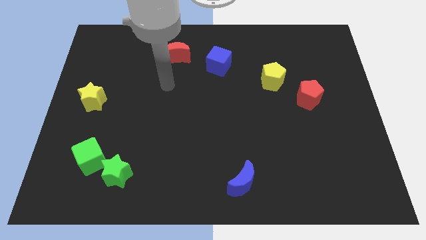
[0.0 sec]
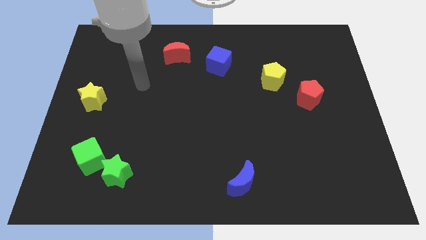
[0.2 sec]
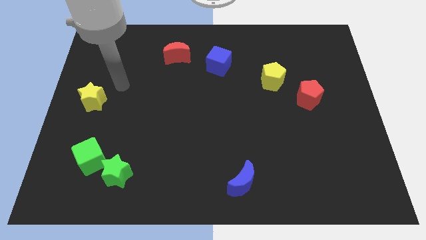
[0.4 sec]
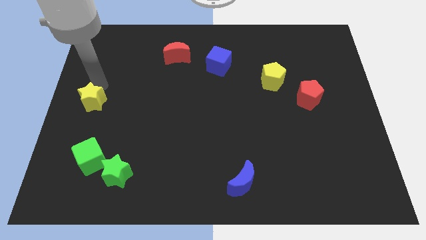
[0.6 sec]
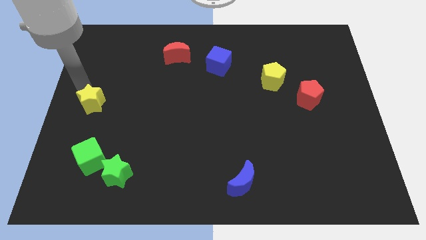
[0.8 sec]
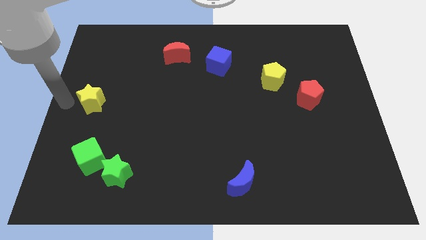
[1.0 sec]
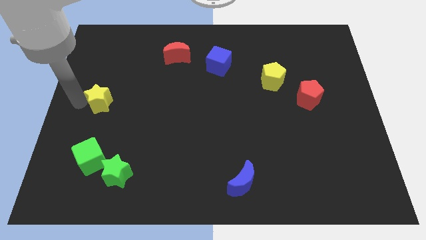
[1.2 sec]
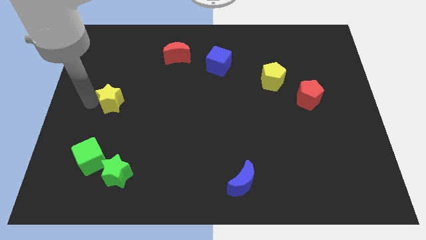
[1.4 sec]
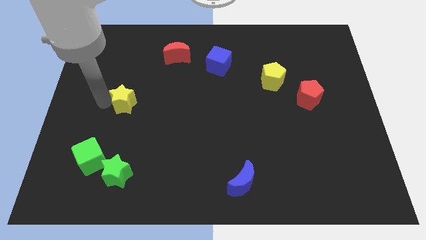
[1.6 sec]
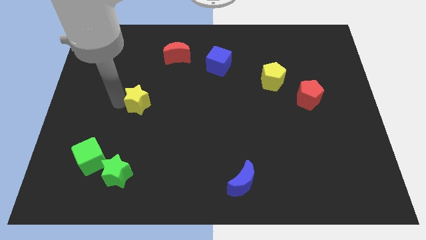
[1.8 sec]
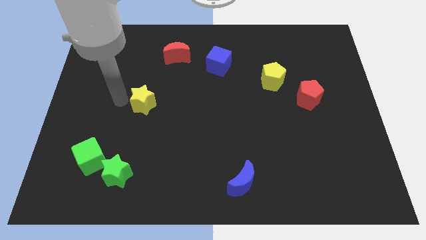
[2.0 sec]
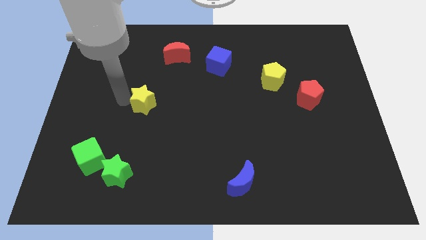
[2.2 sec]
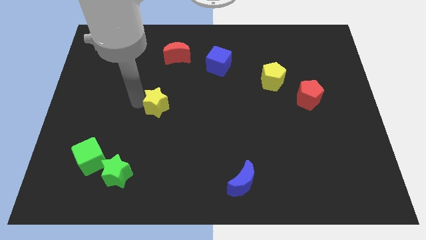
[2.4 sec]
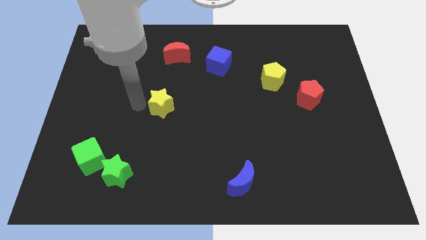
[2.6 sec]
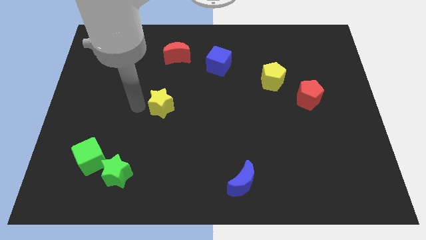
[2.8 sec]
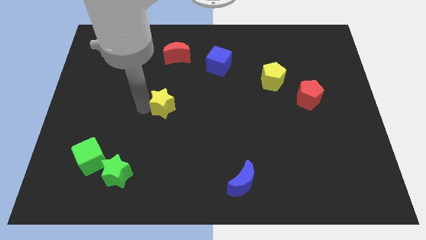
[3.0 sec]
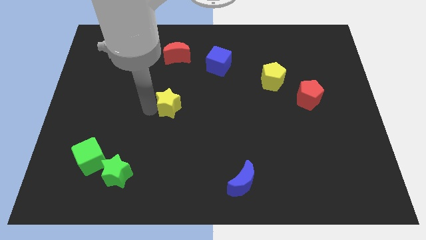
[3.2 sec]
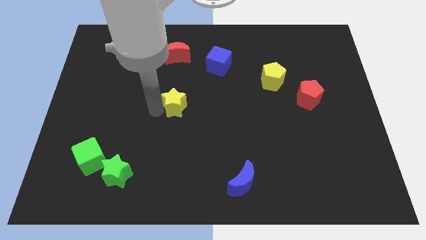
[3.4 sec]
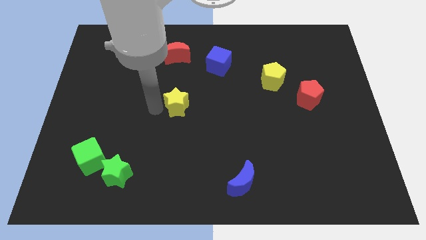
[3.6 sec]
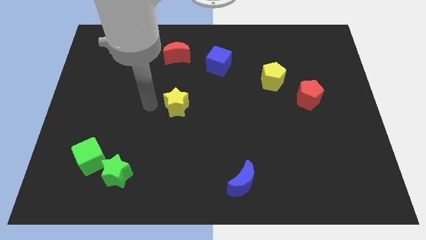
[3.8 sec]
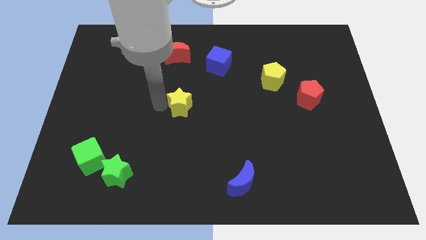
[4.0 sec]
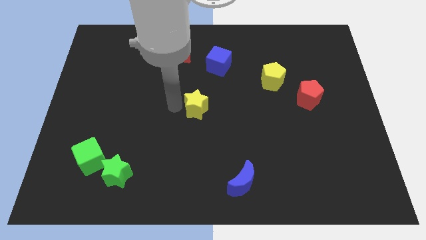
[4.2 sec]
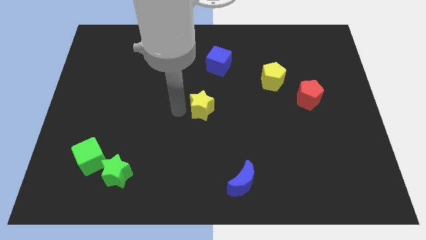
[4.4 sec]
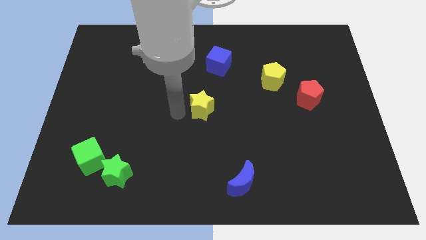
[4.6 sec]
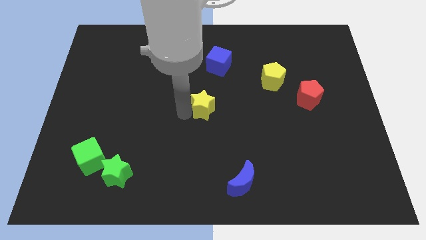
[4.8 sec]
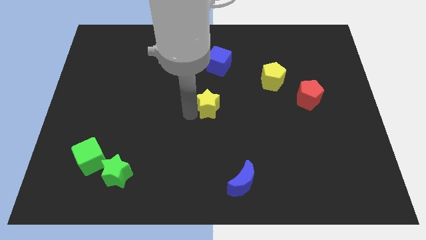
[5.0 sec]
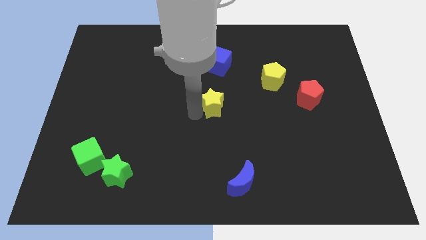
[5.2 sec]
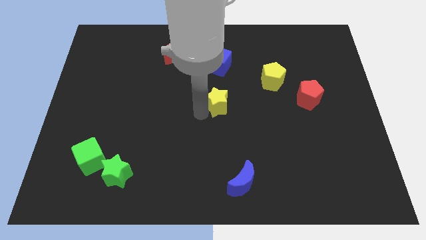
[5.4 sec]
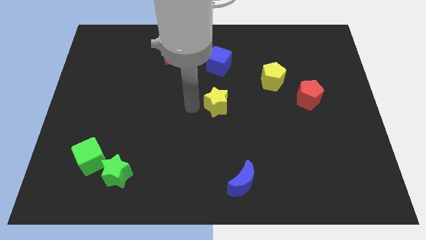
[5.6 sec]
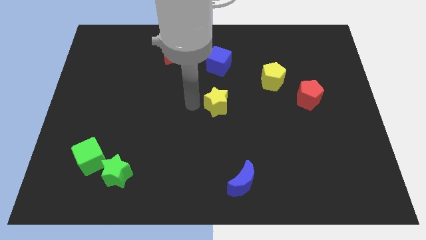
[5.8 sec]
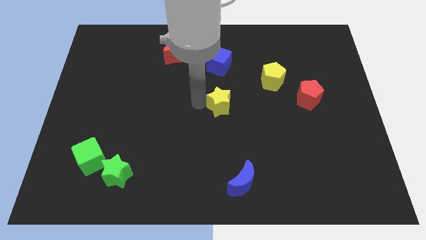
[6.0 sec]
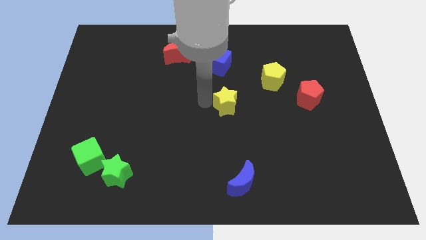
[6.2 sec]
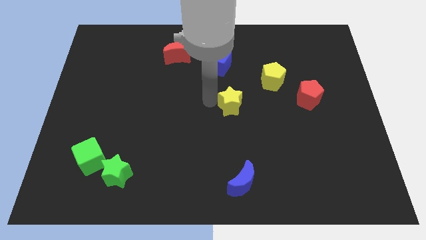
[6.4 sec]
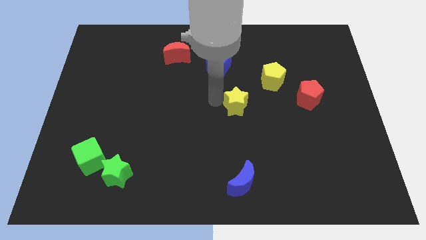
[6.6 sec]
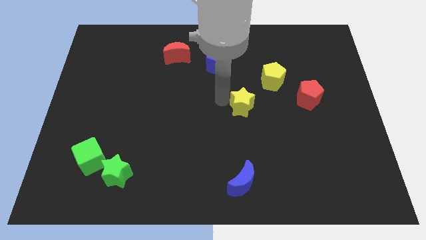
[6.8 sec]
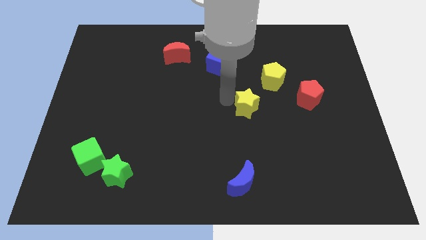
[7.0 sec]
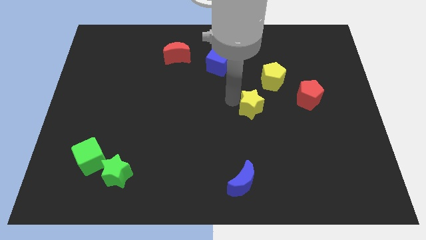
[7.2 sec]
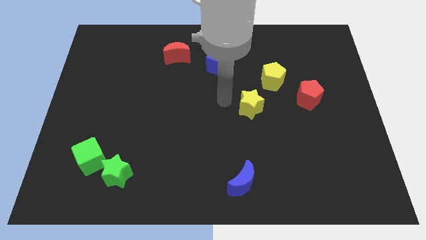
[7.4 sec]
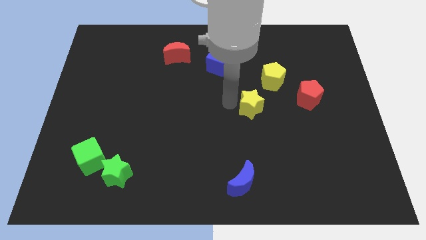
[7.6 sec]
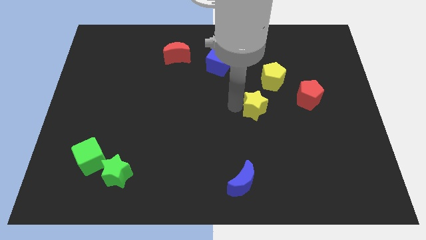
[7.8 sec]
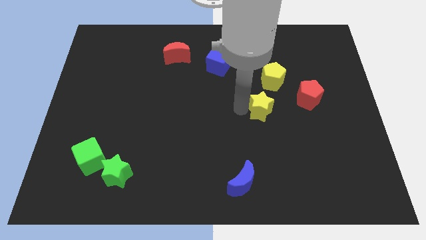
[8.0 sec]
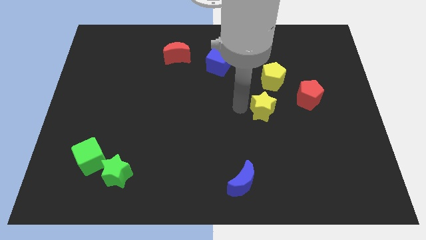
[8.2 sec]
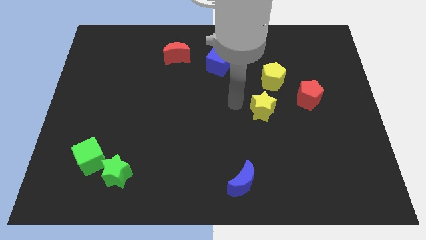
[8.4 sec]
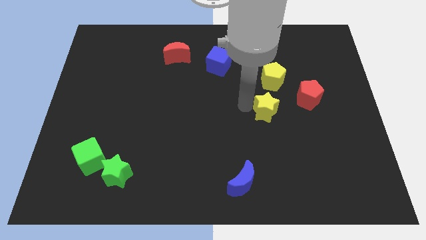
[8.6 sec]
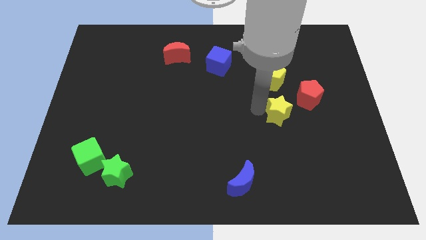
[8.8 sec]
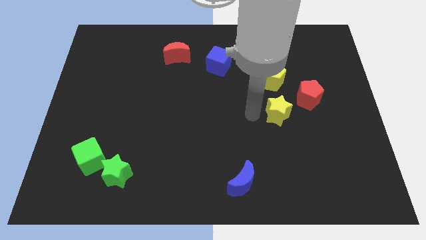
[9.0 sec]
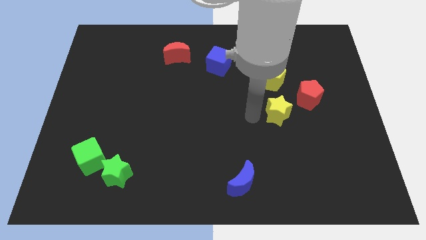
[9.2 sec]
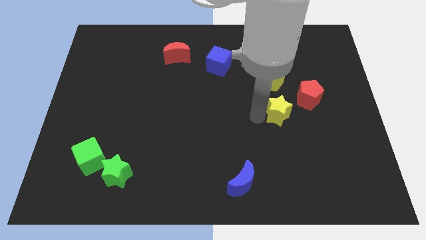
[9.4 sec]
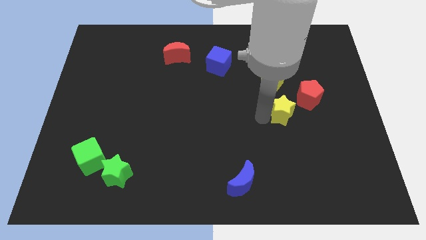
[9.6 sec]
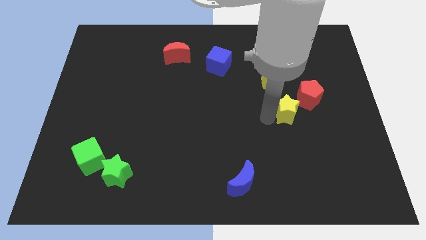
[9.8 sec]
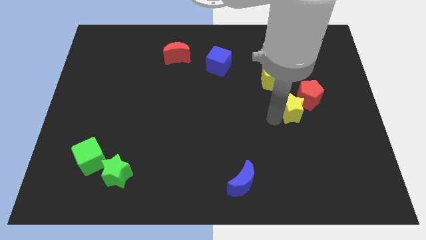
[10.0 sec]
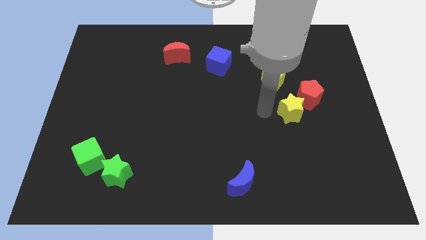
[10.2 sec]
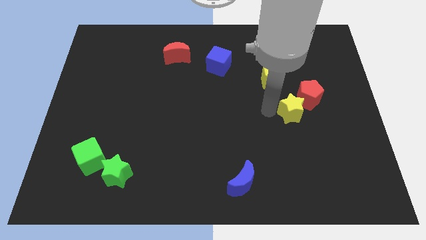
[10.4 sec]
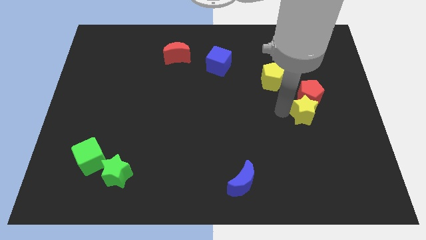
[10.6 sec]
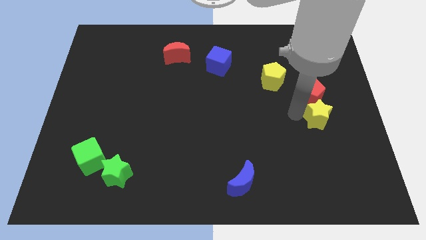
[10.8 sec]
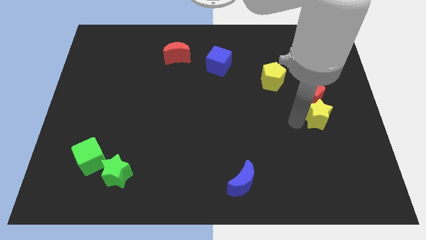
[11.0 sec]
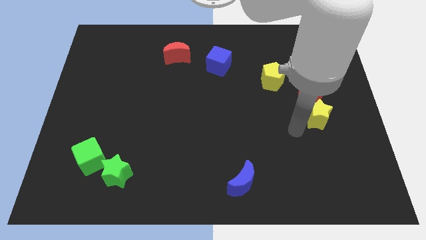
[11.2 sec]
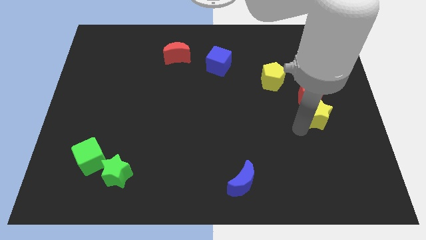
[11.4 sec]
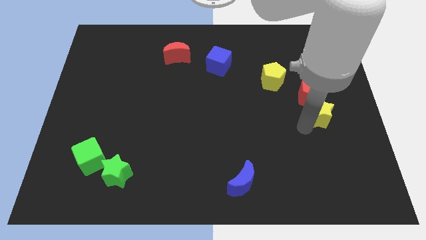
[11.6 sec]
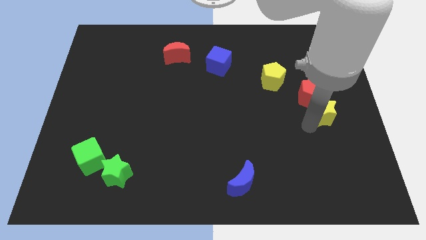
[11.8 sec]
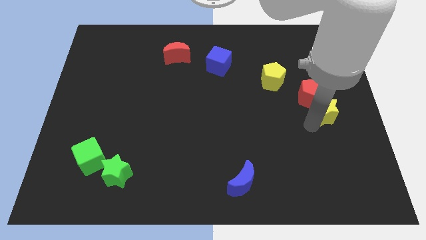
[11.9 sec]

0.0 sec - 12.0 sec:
slide the yellow star to the right side

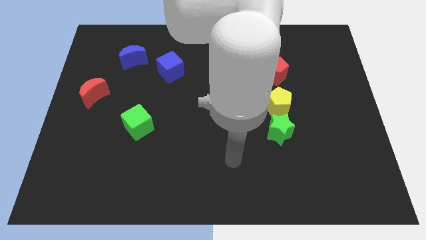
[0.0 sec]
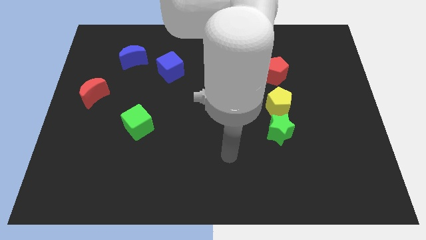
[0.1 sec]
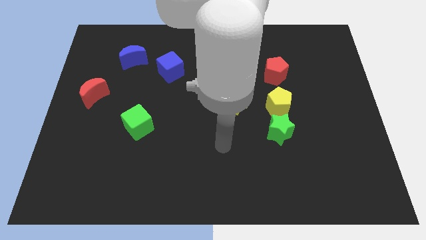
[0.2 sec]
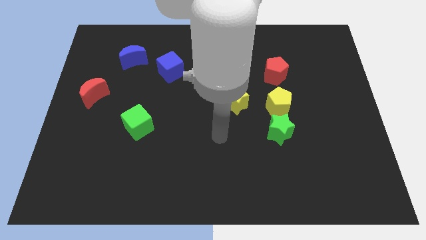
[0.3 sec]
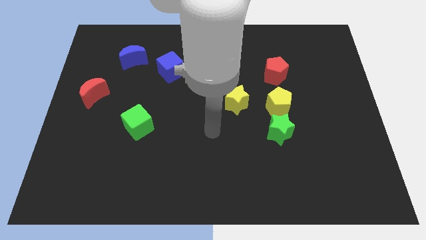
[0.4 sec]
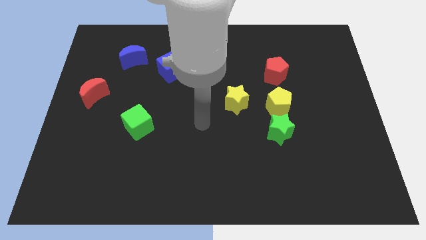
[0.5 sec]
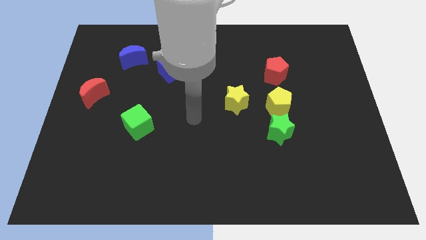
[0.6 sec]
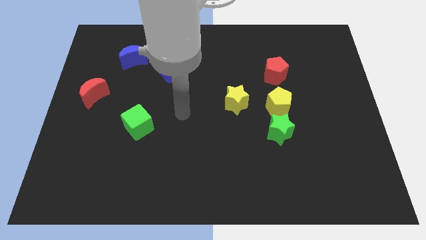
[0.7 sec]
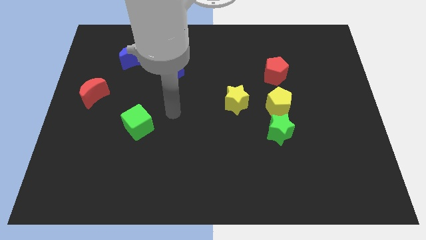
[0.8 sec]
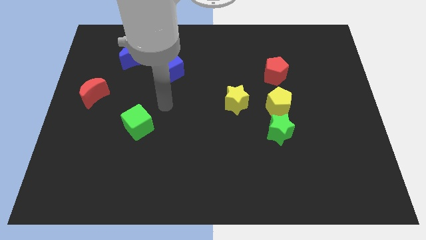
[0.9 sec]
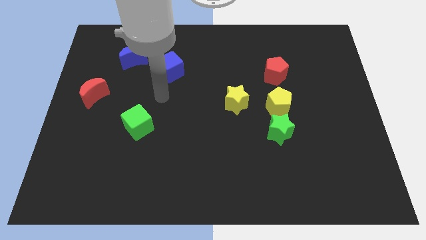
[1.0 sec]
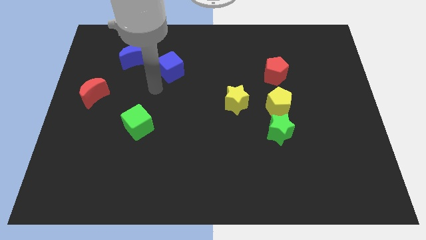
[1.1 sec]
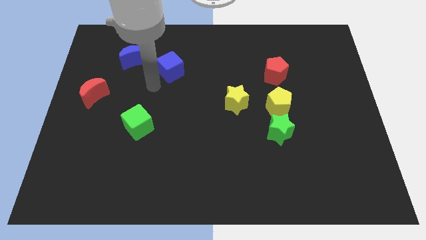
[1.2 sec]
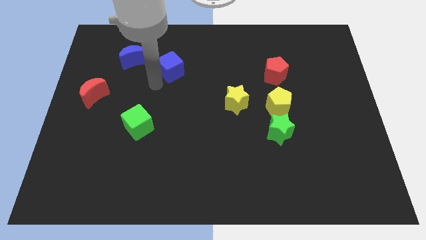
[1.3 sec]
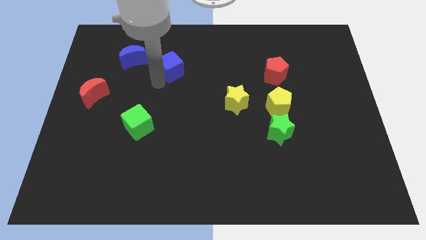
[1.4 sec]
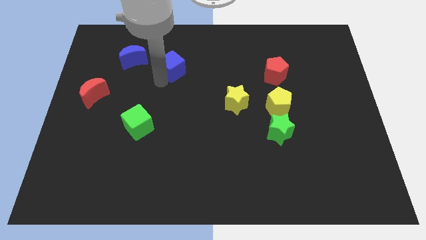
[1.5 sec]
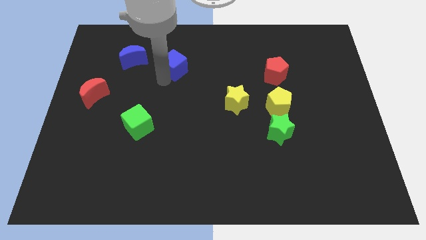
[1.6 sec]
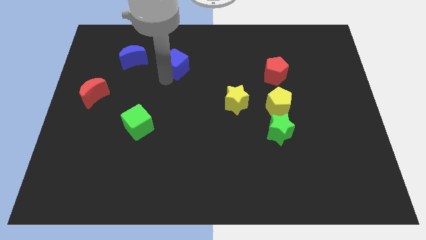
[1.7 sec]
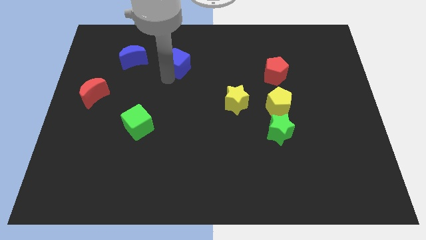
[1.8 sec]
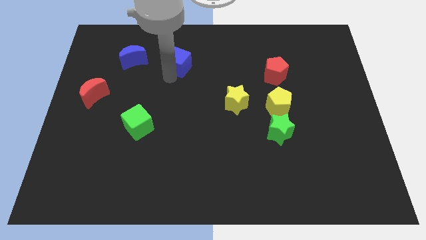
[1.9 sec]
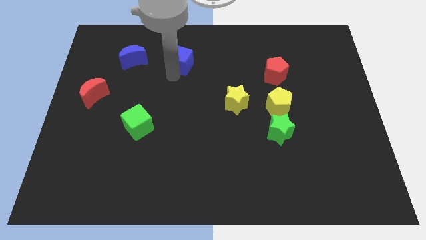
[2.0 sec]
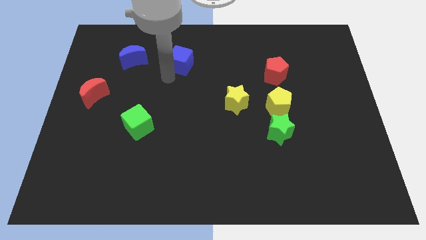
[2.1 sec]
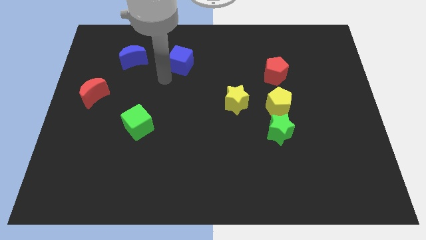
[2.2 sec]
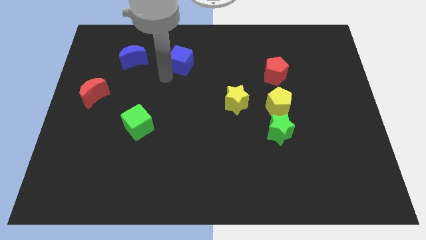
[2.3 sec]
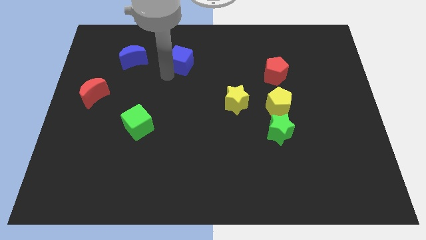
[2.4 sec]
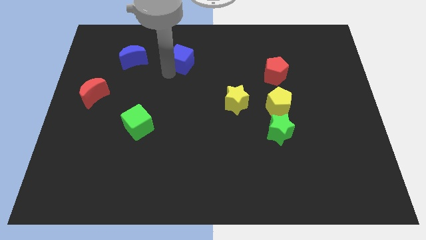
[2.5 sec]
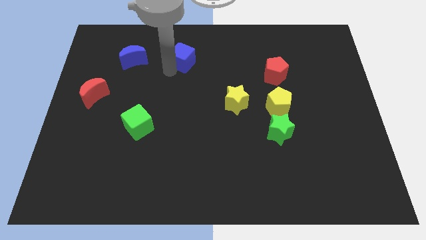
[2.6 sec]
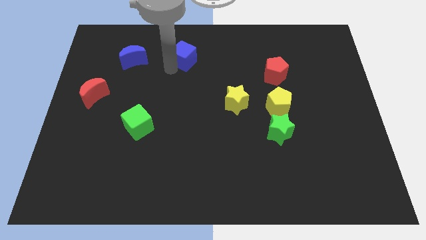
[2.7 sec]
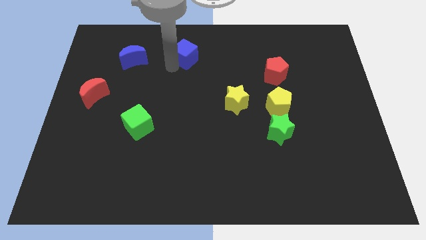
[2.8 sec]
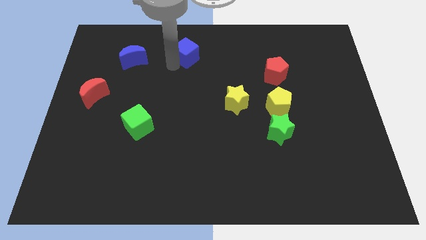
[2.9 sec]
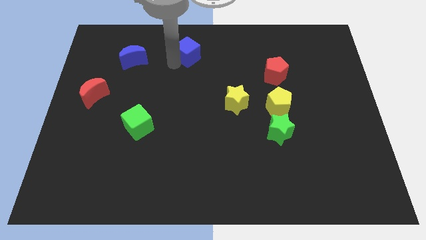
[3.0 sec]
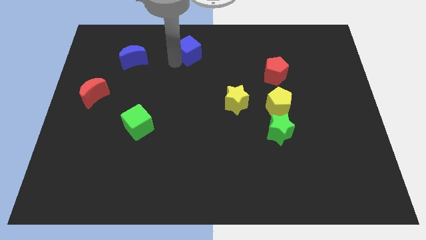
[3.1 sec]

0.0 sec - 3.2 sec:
put the blue cube to the top
